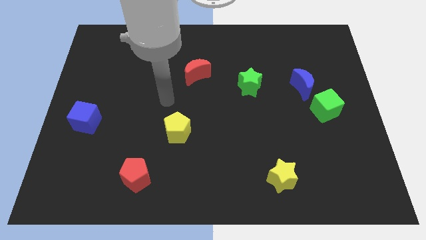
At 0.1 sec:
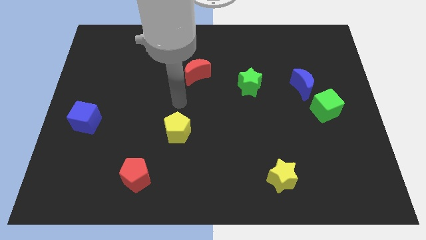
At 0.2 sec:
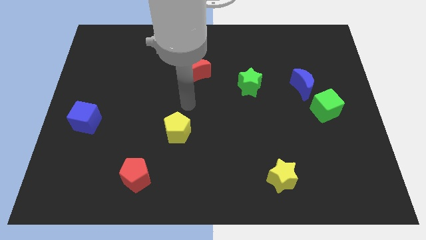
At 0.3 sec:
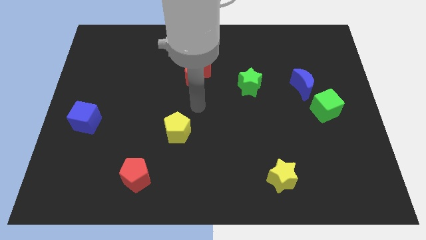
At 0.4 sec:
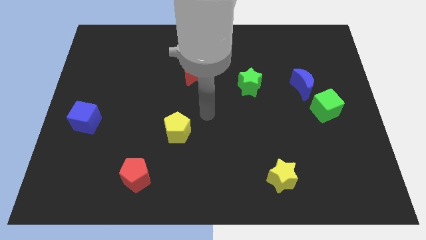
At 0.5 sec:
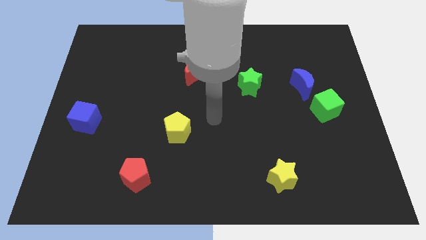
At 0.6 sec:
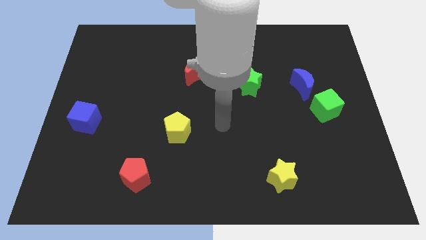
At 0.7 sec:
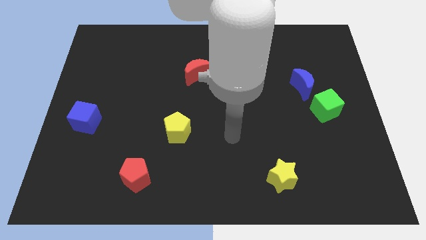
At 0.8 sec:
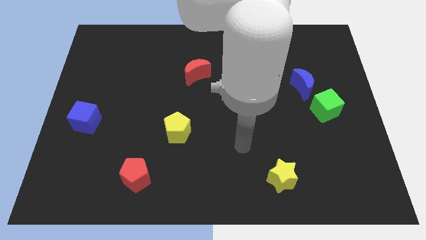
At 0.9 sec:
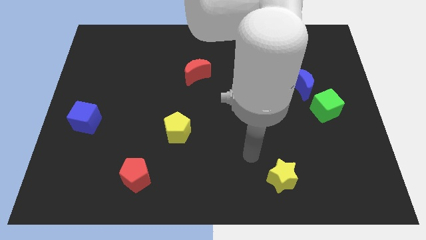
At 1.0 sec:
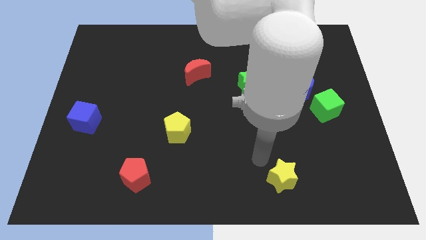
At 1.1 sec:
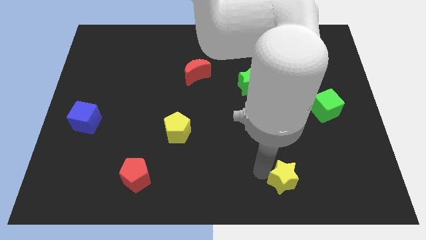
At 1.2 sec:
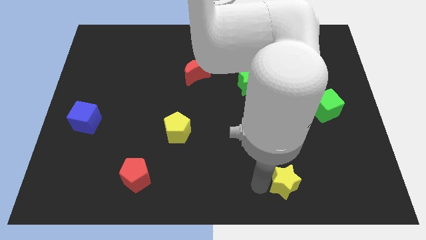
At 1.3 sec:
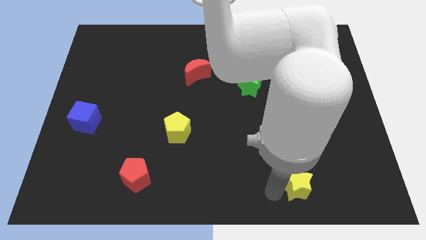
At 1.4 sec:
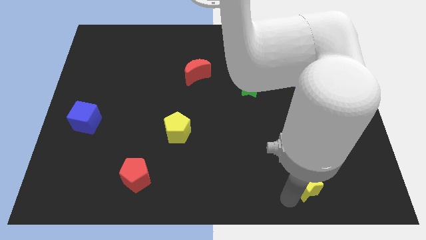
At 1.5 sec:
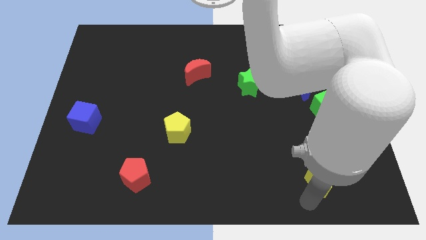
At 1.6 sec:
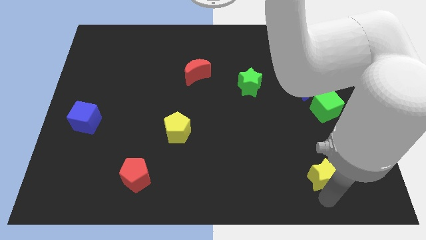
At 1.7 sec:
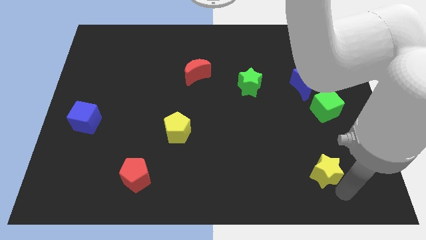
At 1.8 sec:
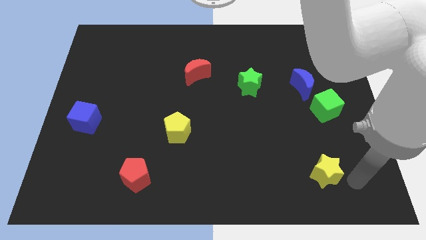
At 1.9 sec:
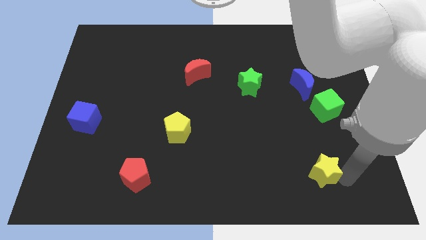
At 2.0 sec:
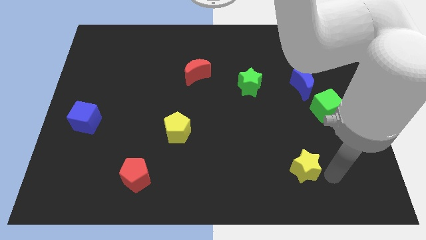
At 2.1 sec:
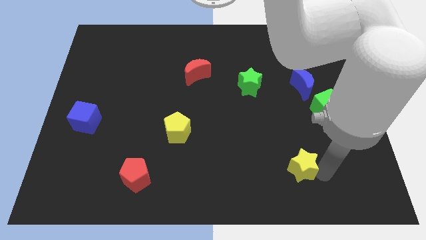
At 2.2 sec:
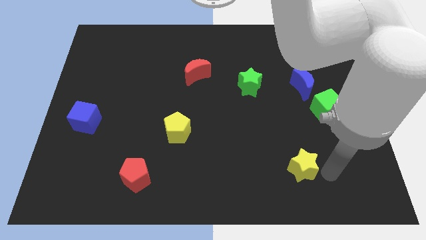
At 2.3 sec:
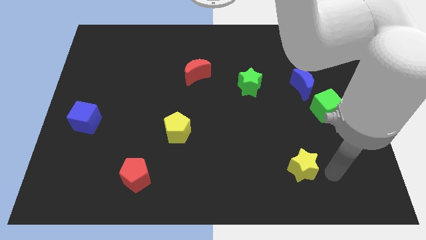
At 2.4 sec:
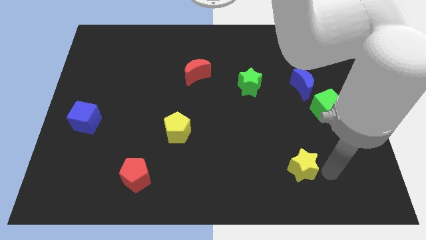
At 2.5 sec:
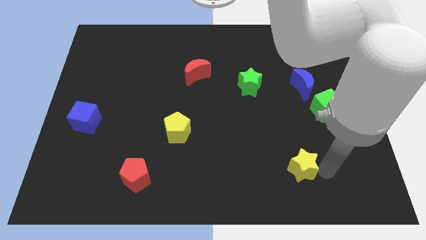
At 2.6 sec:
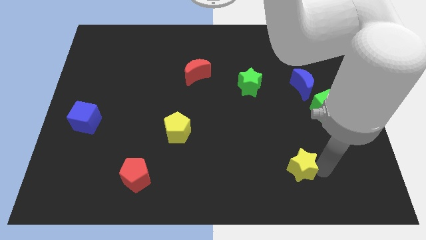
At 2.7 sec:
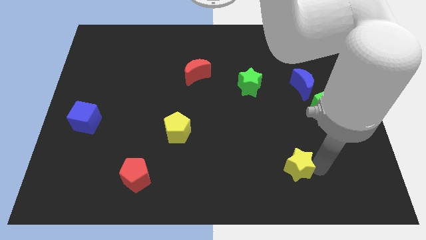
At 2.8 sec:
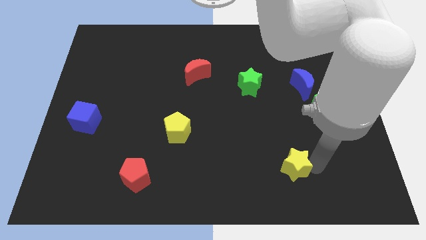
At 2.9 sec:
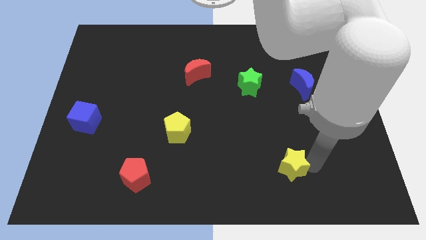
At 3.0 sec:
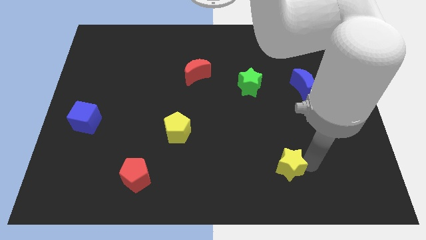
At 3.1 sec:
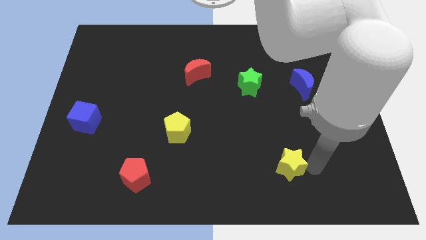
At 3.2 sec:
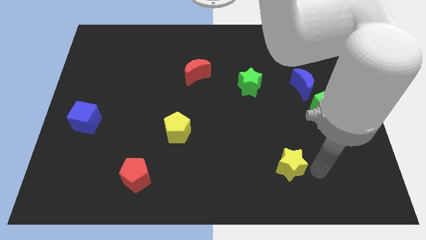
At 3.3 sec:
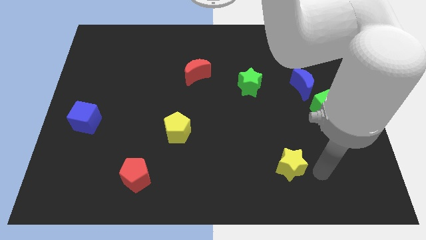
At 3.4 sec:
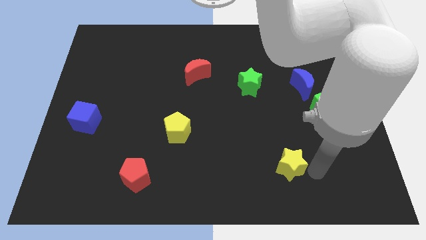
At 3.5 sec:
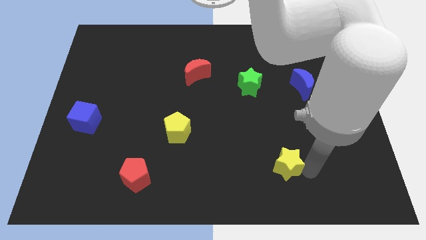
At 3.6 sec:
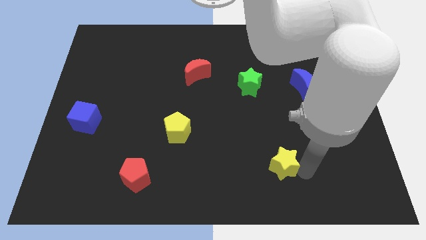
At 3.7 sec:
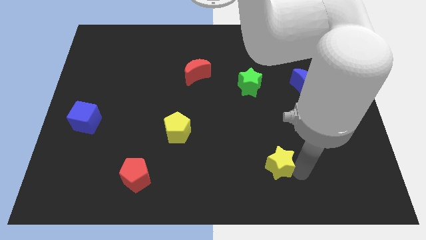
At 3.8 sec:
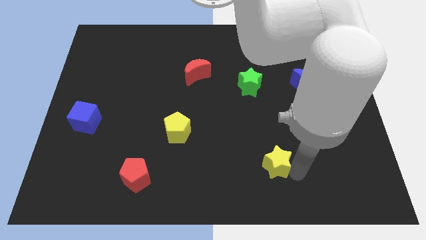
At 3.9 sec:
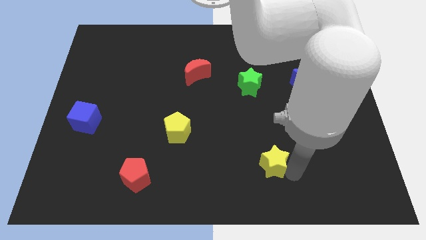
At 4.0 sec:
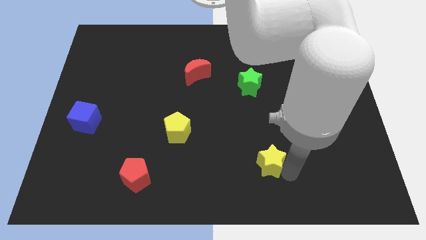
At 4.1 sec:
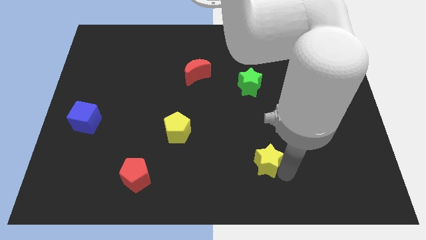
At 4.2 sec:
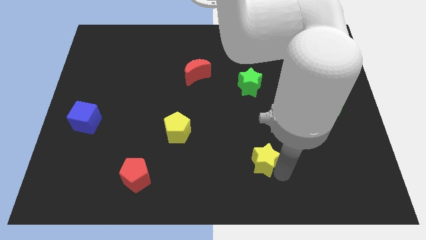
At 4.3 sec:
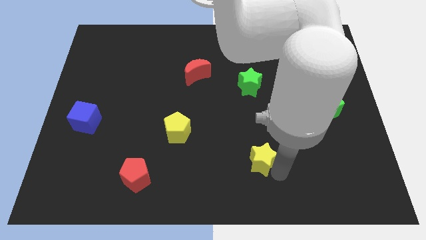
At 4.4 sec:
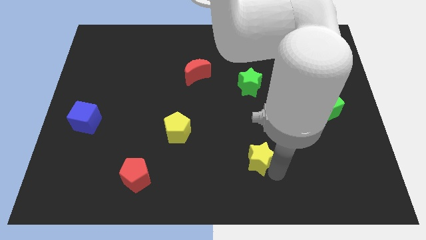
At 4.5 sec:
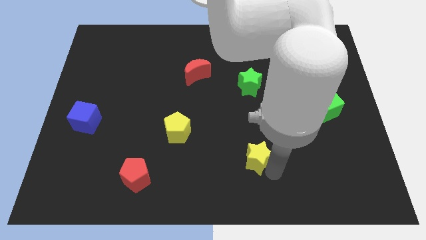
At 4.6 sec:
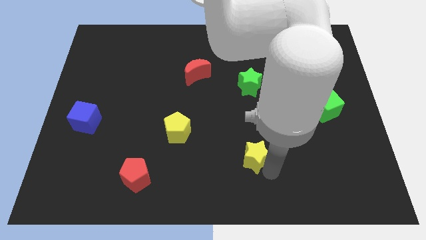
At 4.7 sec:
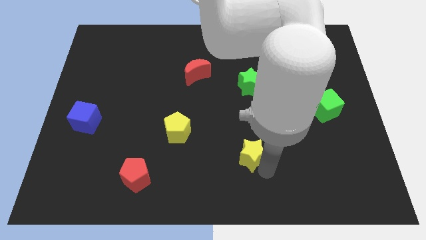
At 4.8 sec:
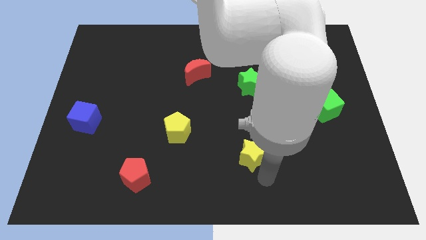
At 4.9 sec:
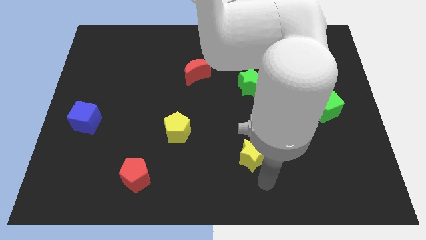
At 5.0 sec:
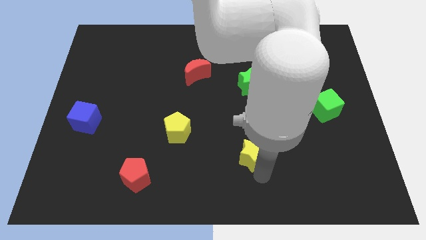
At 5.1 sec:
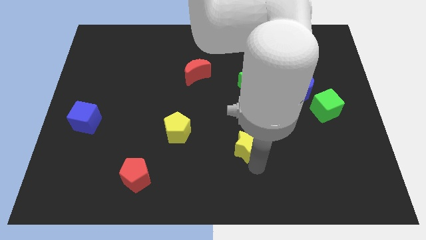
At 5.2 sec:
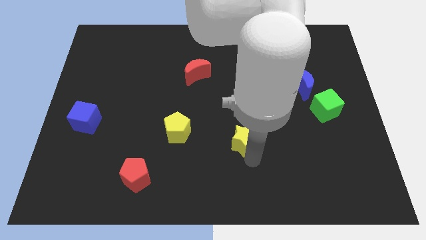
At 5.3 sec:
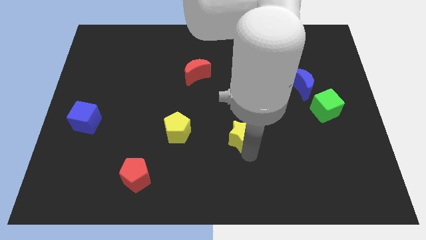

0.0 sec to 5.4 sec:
move the yellow star to the middle

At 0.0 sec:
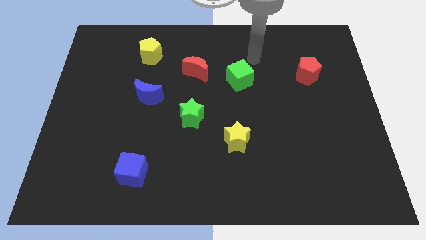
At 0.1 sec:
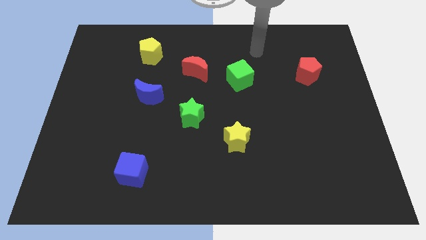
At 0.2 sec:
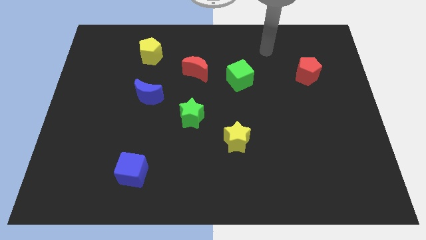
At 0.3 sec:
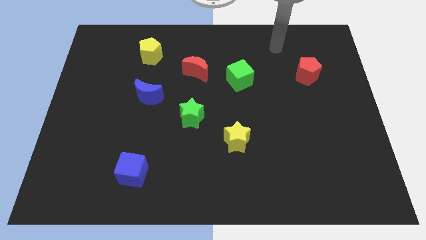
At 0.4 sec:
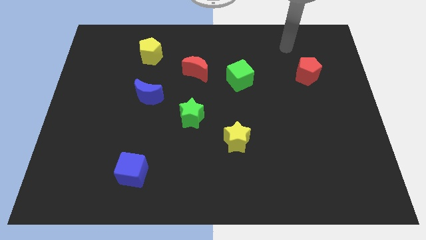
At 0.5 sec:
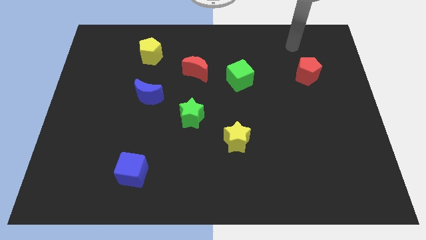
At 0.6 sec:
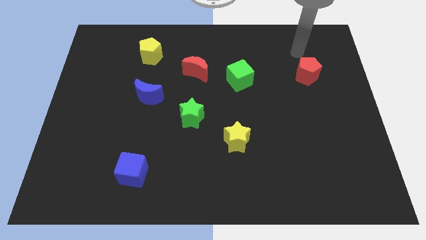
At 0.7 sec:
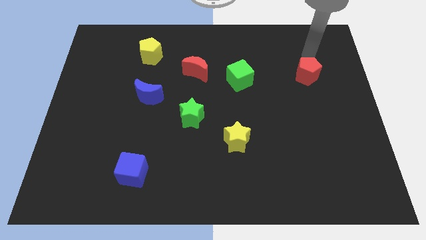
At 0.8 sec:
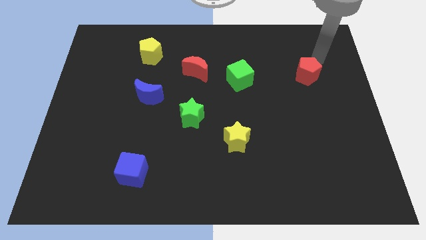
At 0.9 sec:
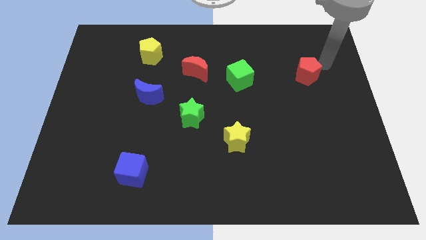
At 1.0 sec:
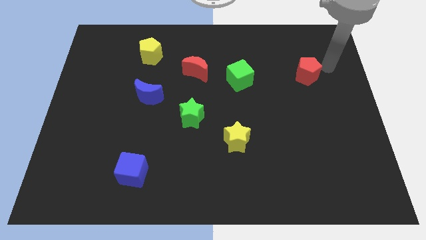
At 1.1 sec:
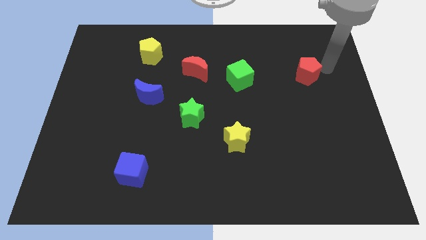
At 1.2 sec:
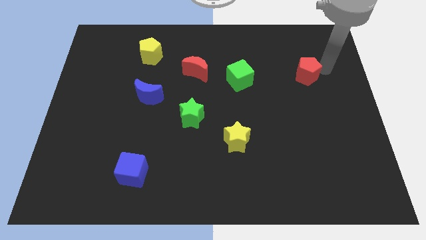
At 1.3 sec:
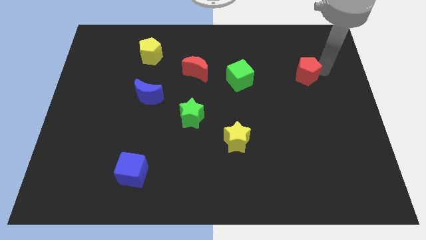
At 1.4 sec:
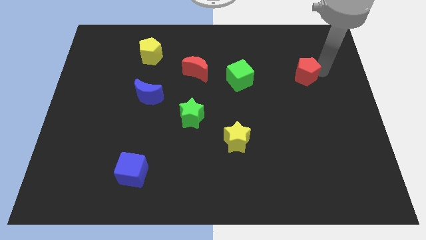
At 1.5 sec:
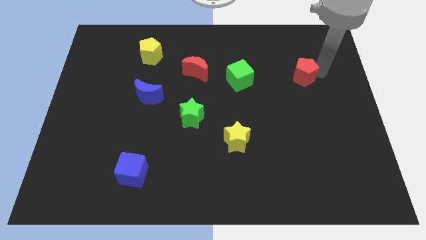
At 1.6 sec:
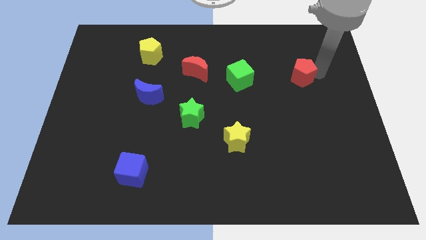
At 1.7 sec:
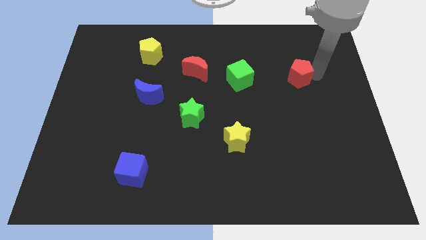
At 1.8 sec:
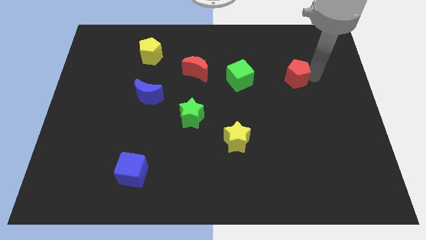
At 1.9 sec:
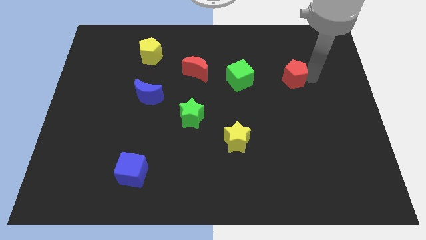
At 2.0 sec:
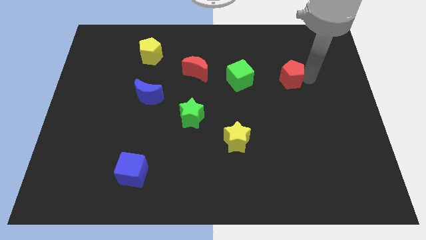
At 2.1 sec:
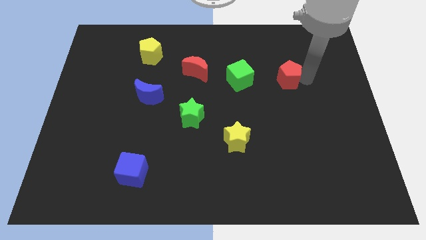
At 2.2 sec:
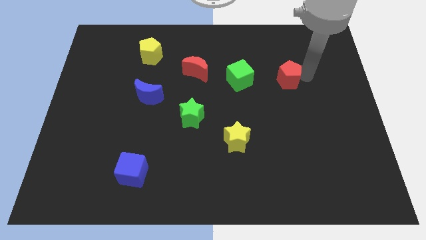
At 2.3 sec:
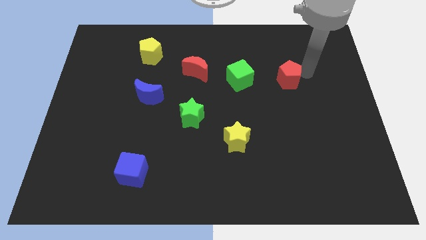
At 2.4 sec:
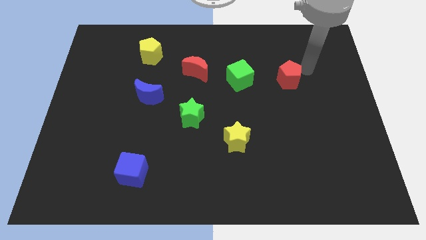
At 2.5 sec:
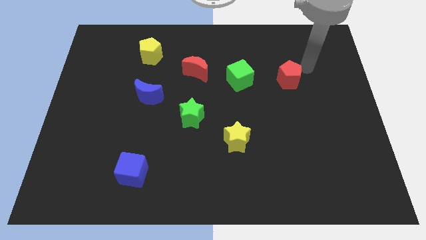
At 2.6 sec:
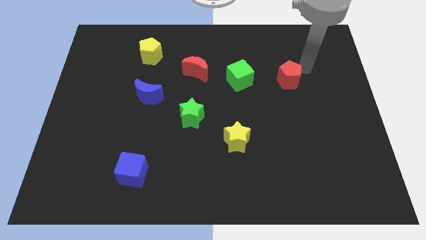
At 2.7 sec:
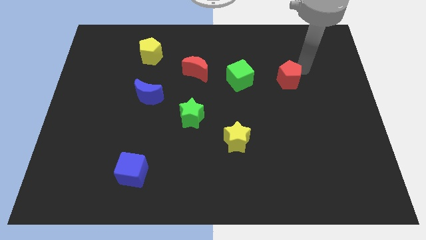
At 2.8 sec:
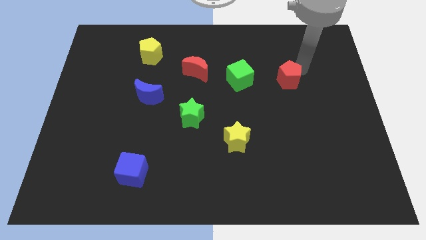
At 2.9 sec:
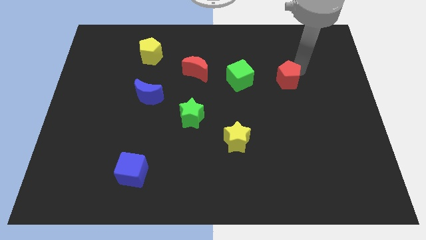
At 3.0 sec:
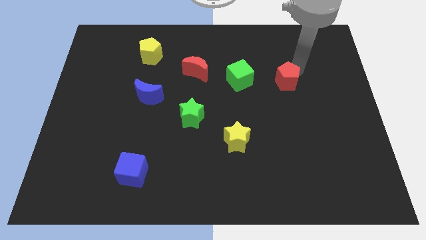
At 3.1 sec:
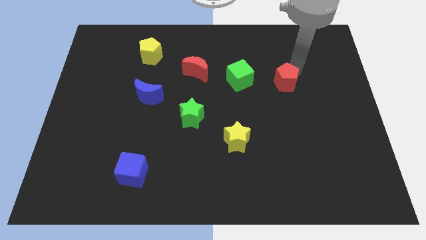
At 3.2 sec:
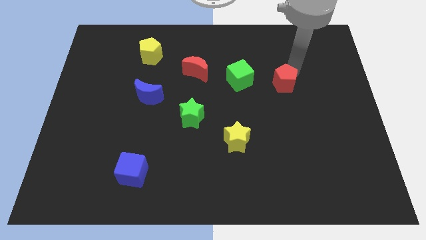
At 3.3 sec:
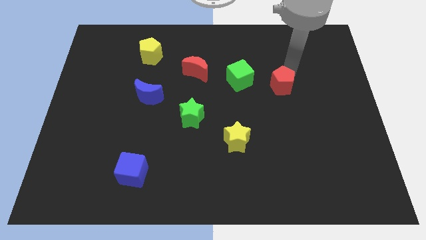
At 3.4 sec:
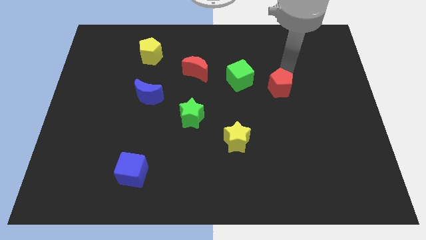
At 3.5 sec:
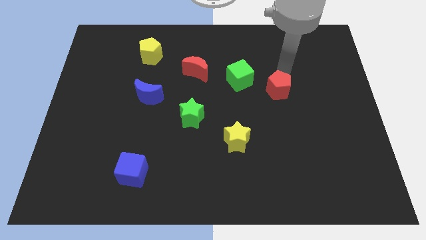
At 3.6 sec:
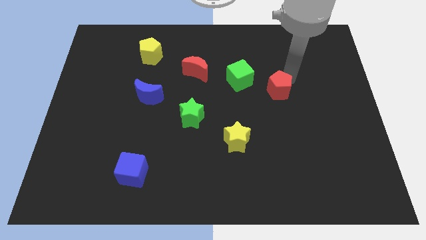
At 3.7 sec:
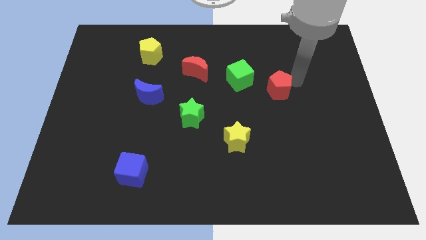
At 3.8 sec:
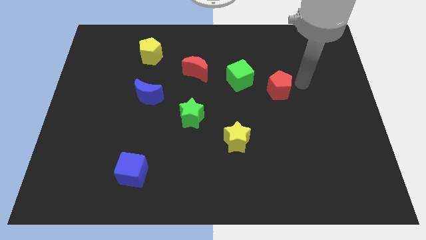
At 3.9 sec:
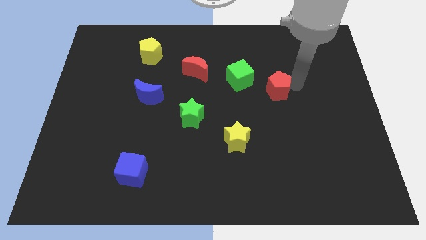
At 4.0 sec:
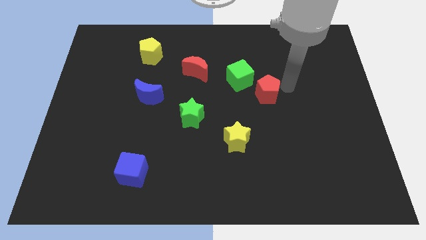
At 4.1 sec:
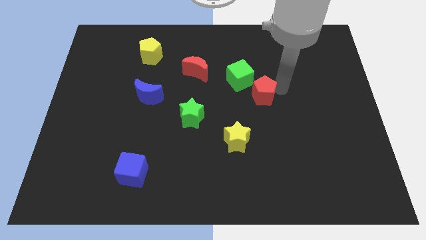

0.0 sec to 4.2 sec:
slide the red pentagon to the middle of the board
